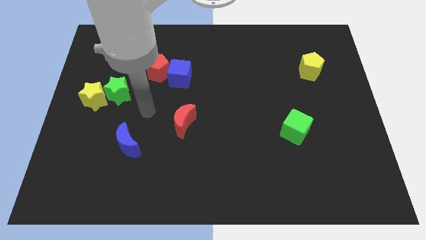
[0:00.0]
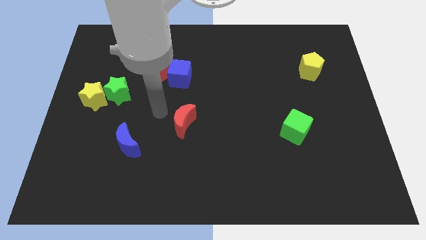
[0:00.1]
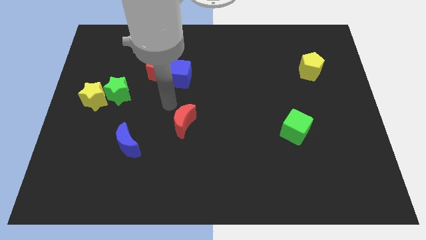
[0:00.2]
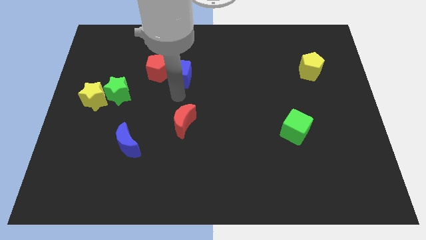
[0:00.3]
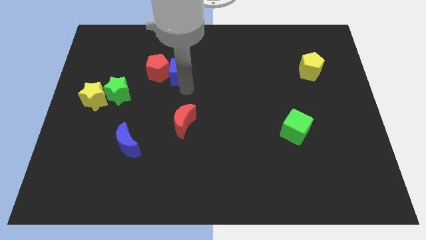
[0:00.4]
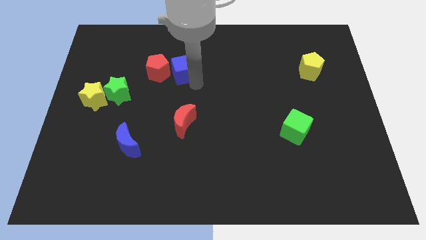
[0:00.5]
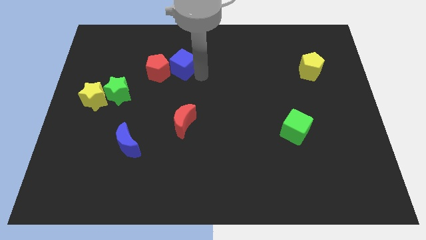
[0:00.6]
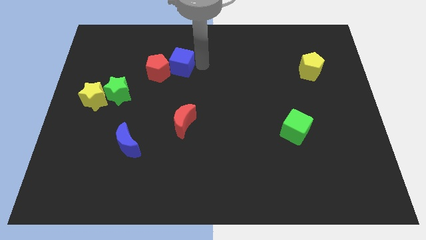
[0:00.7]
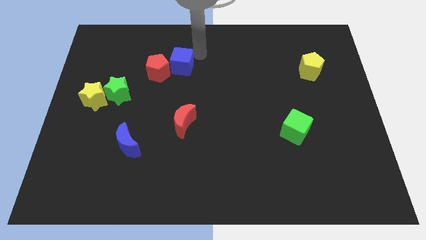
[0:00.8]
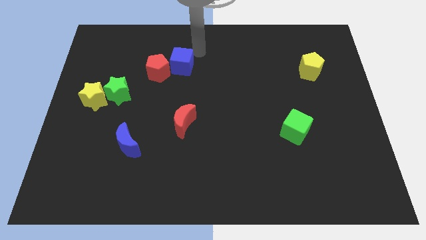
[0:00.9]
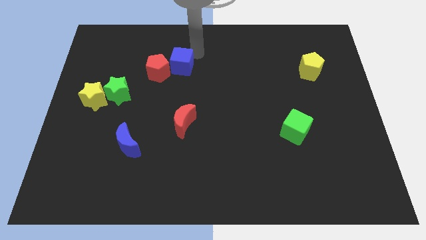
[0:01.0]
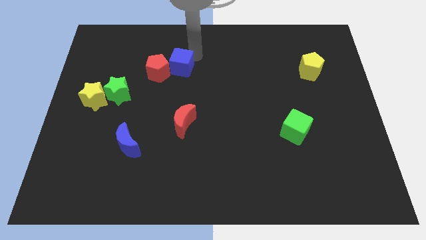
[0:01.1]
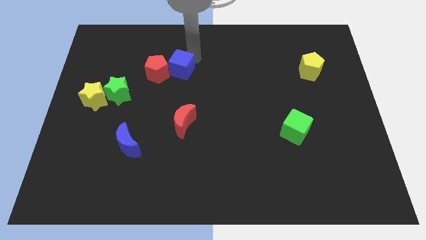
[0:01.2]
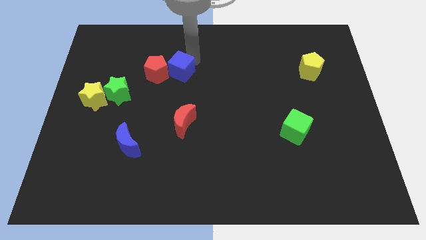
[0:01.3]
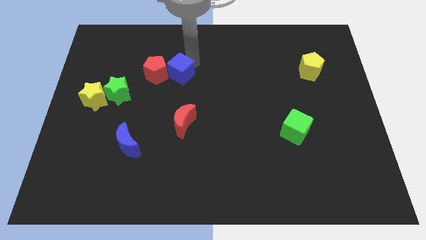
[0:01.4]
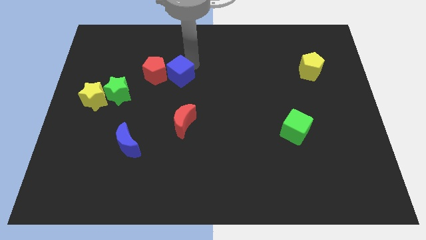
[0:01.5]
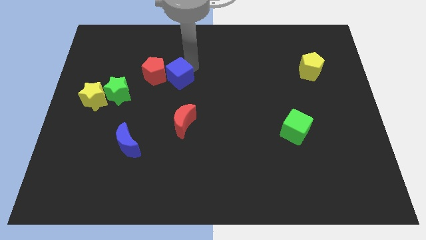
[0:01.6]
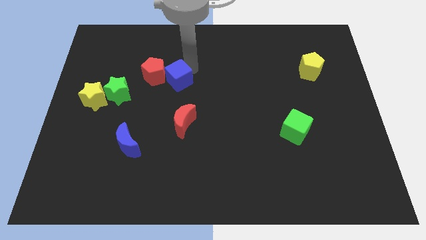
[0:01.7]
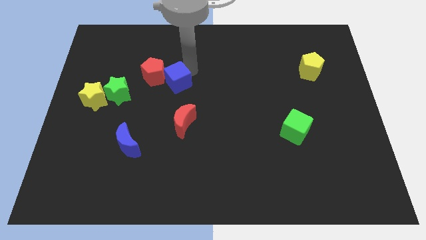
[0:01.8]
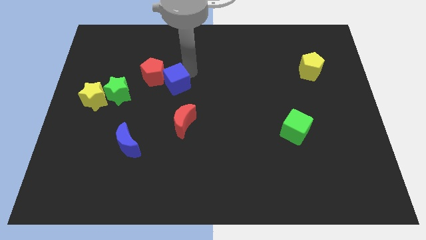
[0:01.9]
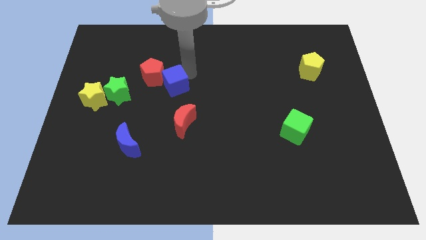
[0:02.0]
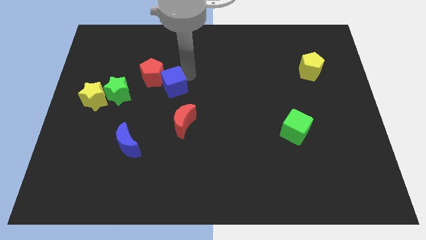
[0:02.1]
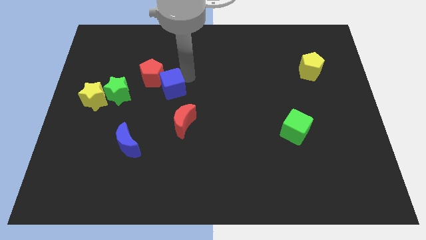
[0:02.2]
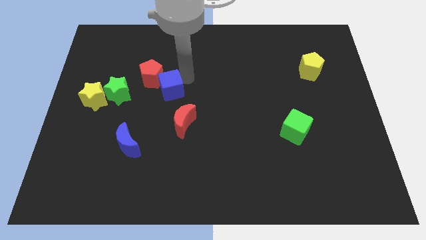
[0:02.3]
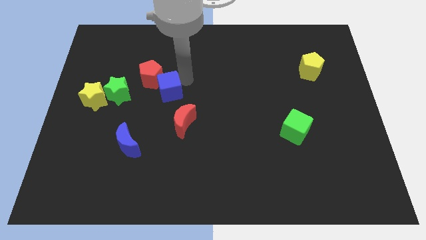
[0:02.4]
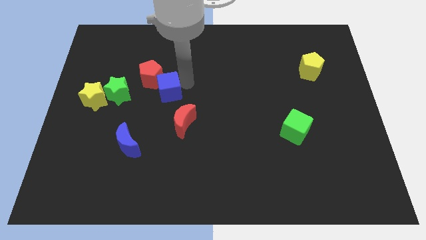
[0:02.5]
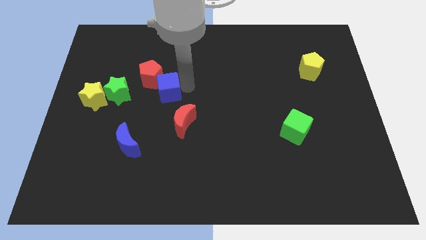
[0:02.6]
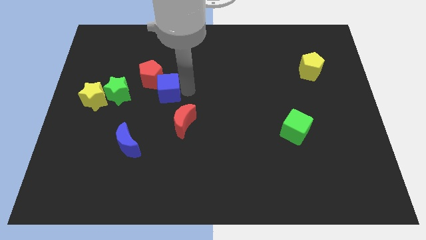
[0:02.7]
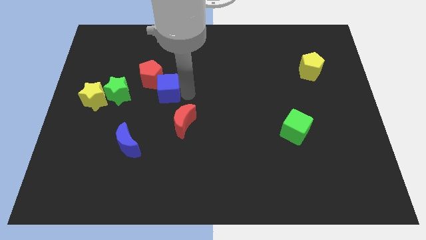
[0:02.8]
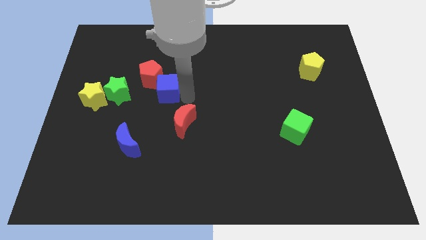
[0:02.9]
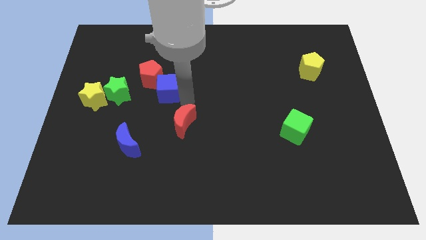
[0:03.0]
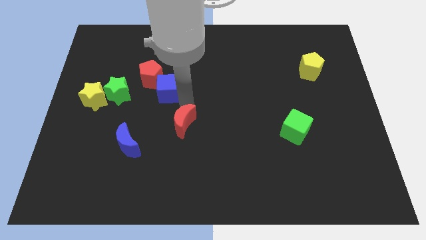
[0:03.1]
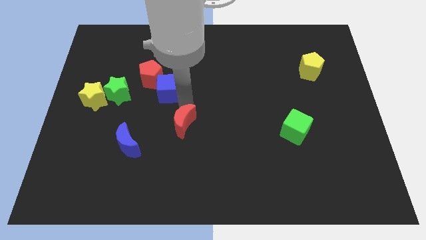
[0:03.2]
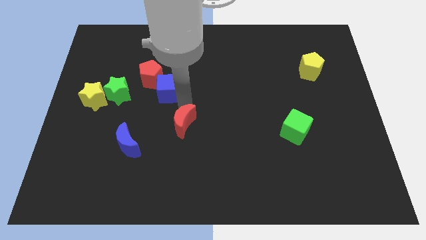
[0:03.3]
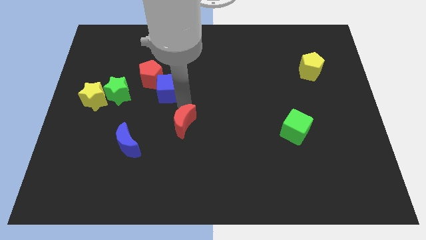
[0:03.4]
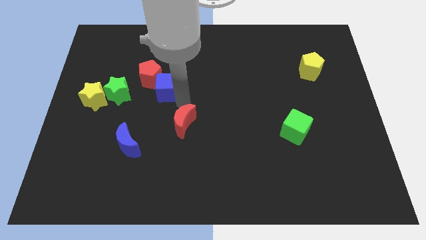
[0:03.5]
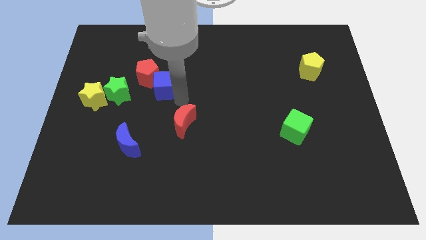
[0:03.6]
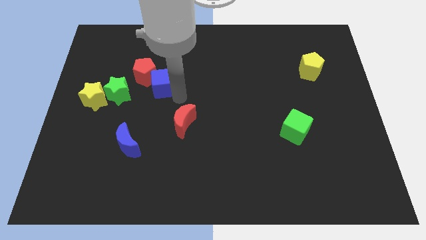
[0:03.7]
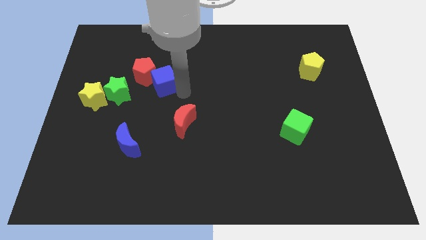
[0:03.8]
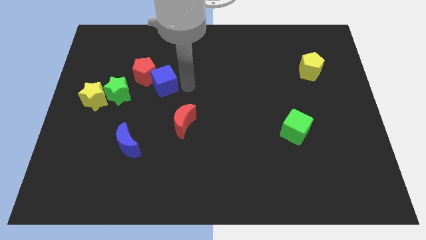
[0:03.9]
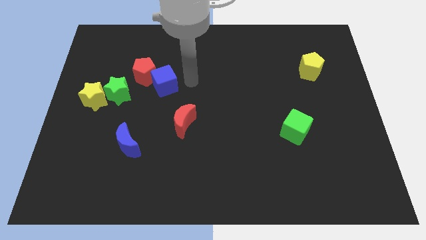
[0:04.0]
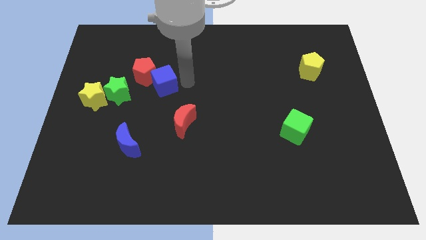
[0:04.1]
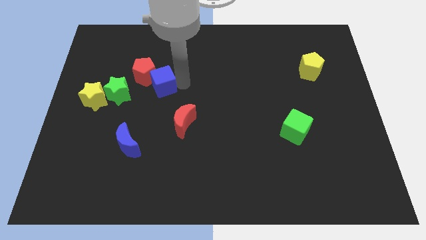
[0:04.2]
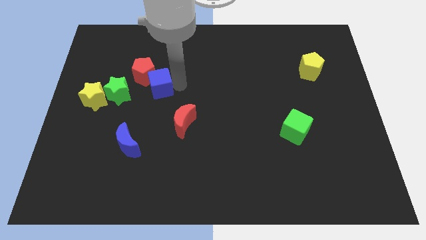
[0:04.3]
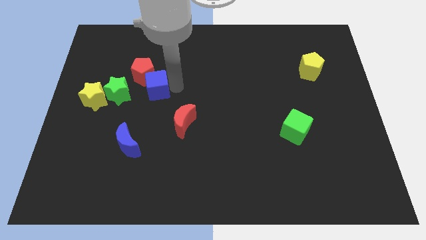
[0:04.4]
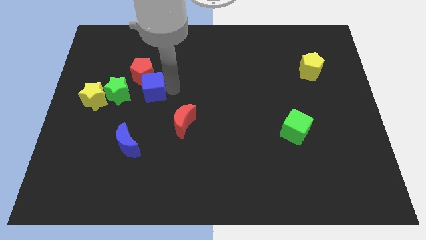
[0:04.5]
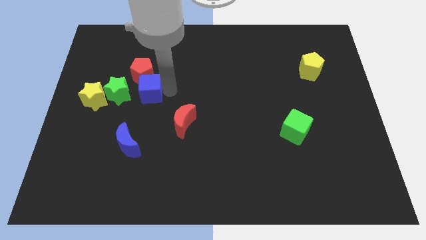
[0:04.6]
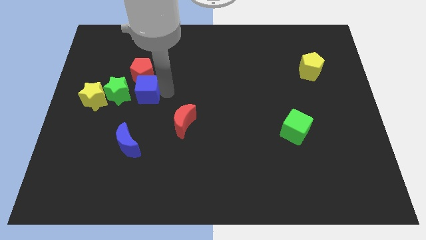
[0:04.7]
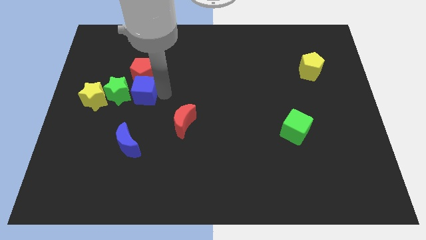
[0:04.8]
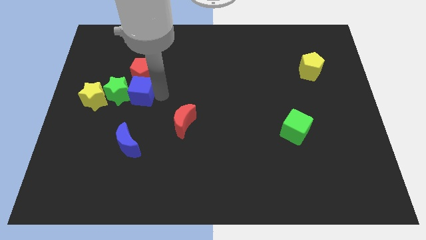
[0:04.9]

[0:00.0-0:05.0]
push the blue cube to the bottom left side of the red pentagon
